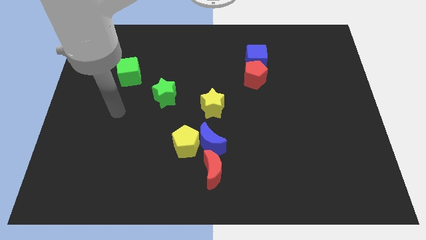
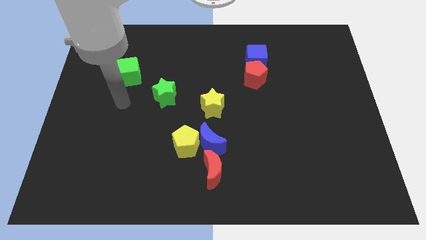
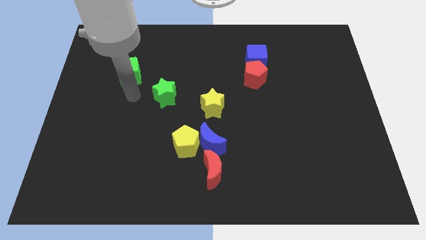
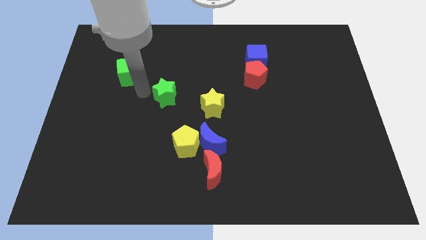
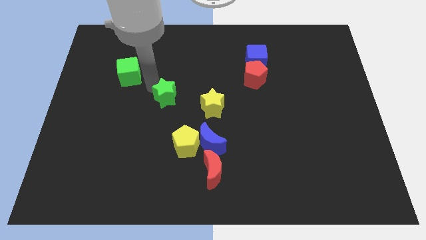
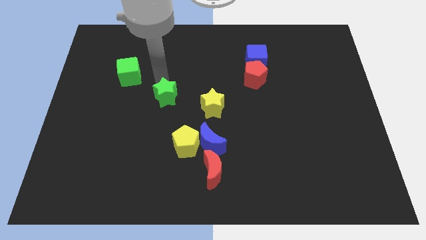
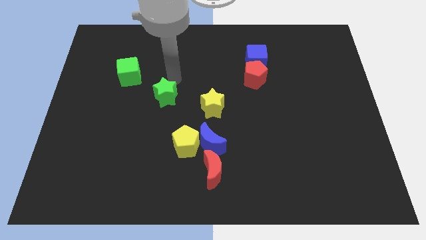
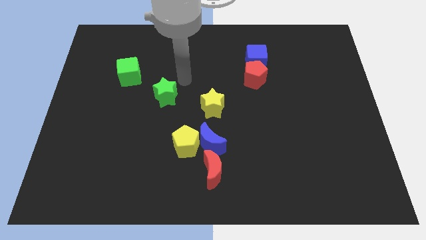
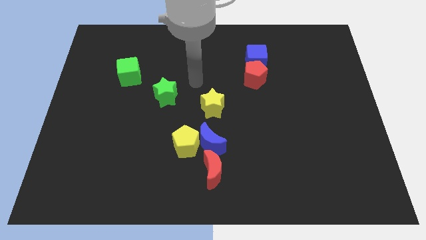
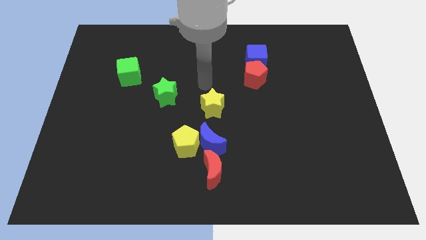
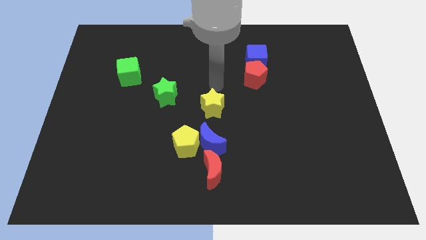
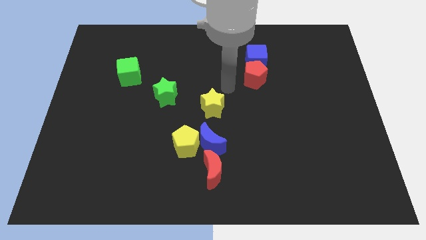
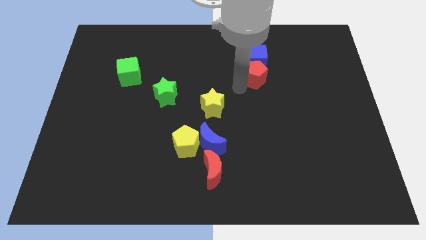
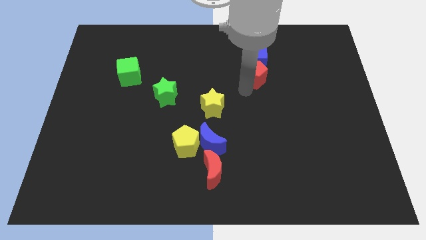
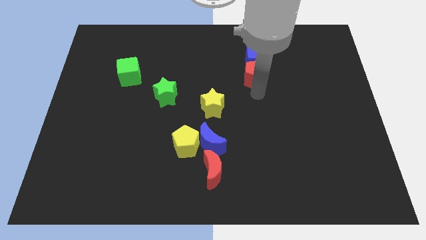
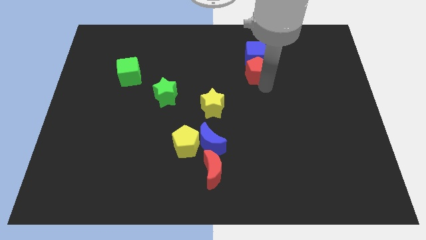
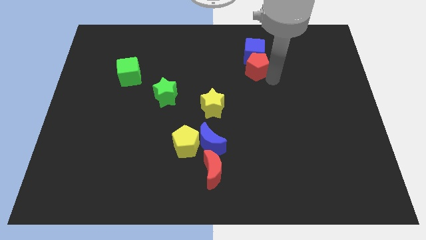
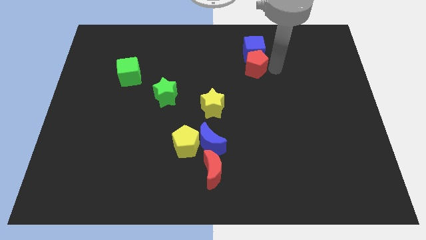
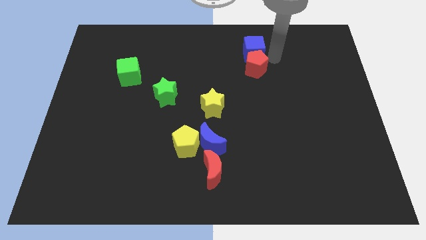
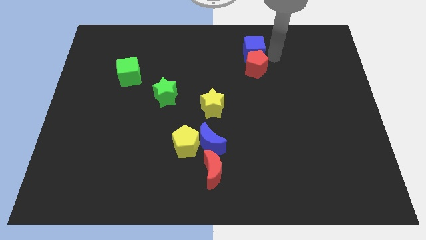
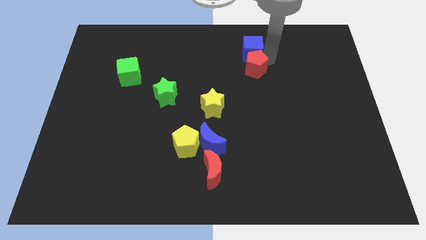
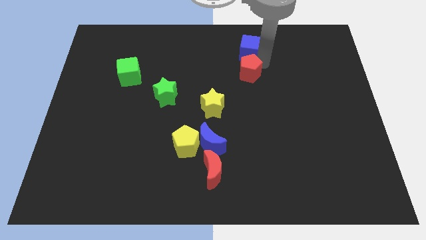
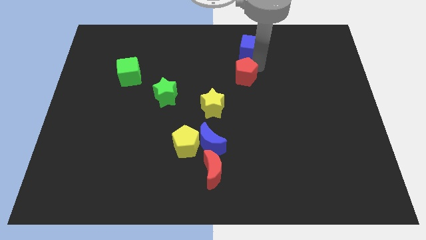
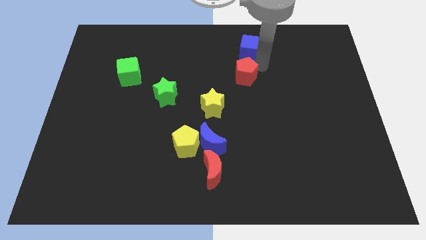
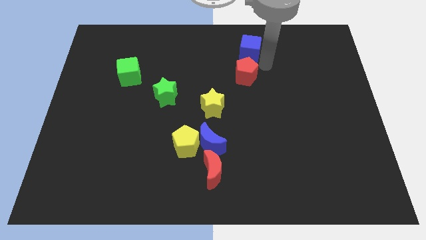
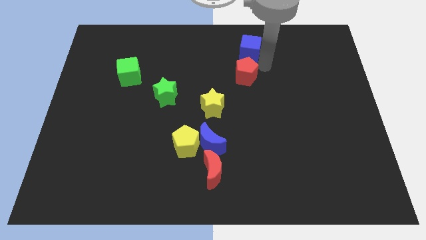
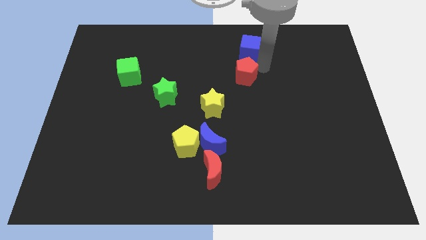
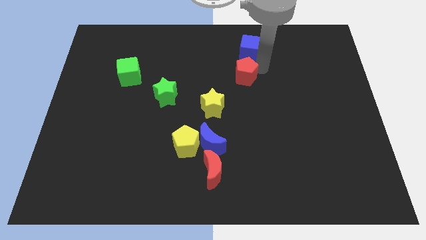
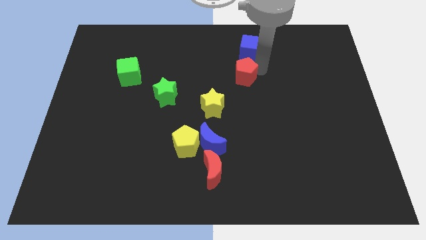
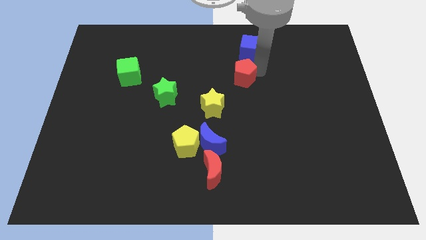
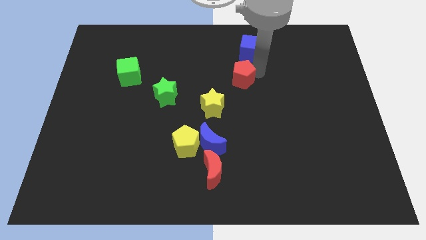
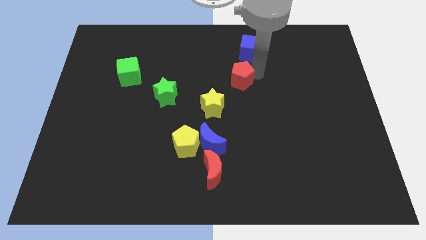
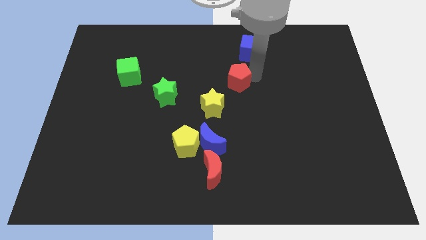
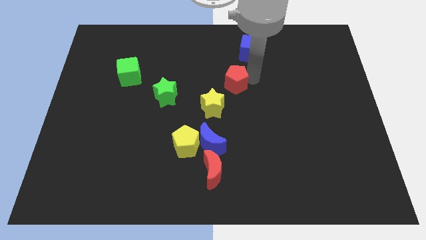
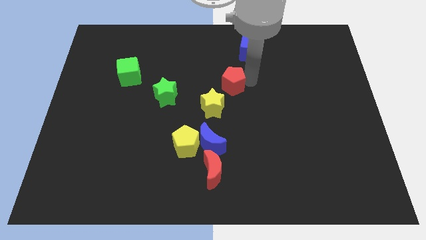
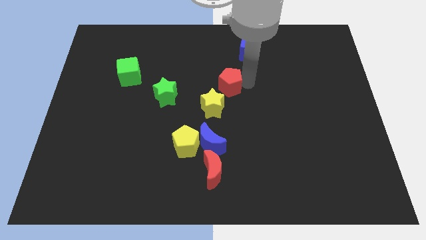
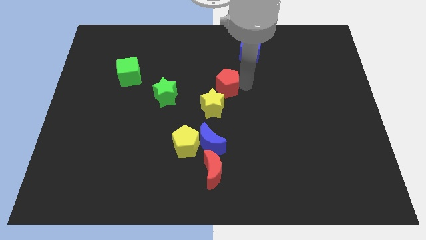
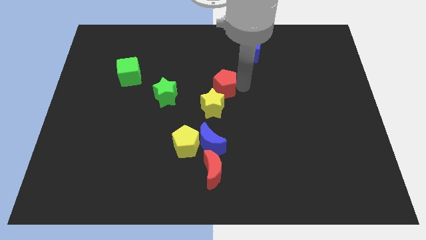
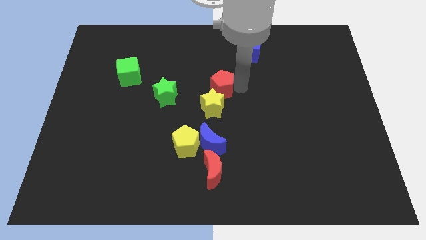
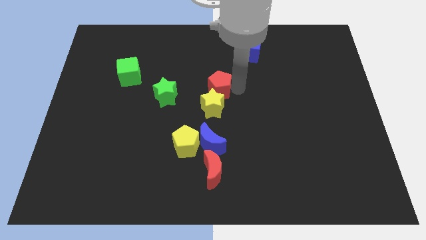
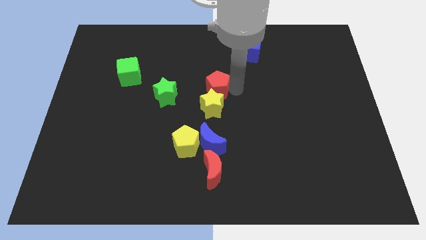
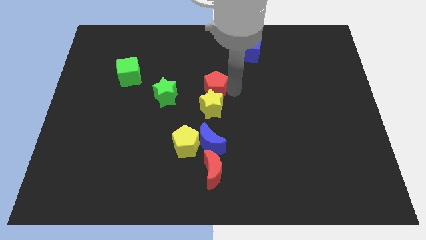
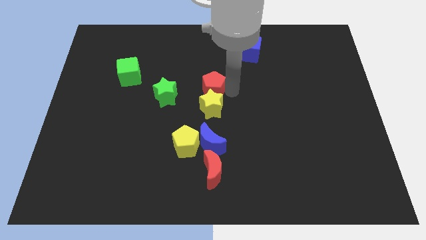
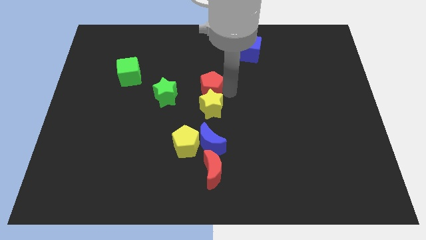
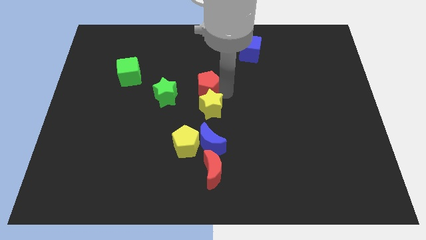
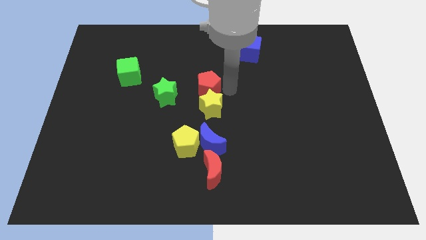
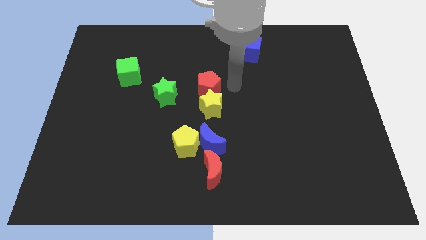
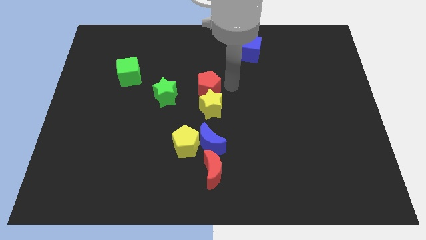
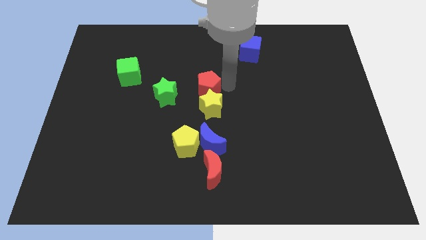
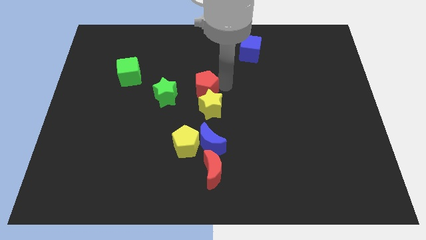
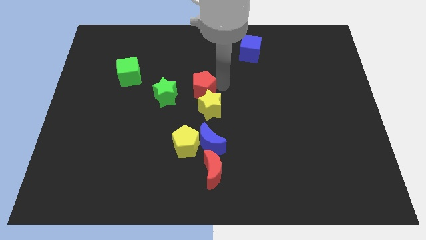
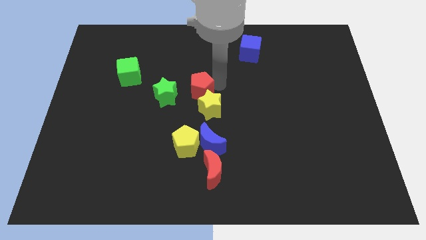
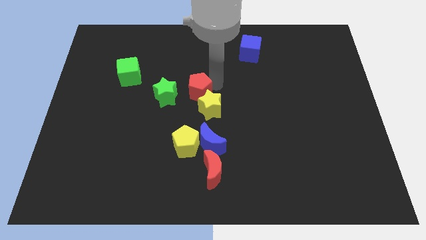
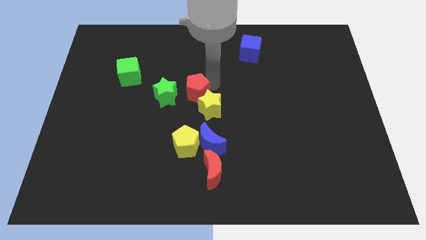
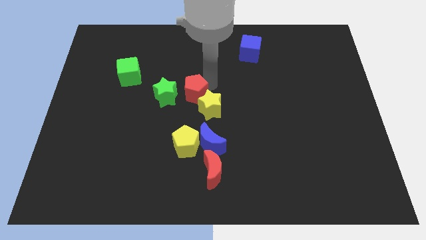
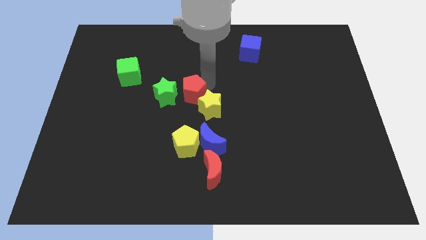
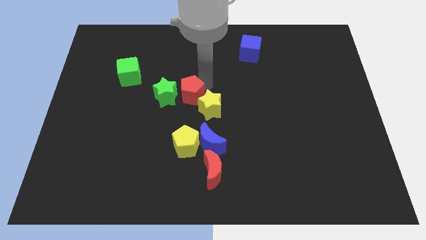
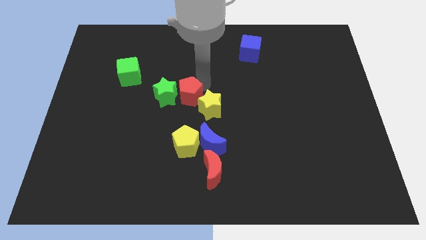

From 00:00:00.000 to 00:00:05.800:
move the red pentagon close to the green star

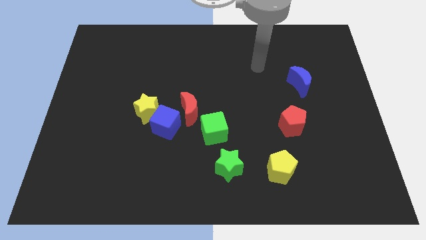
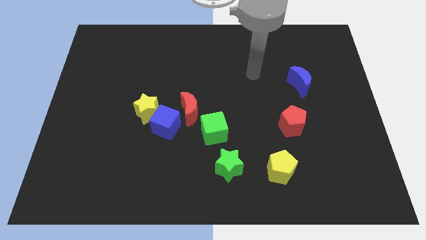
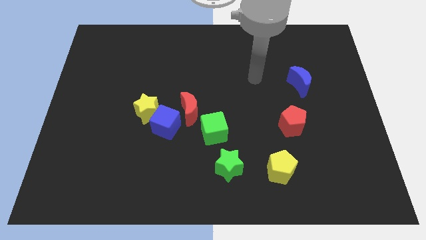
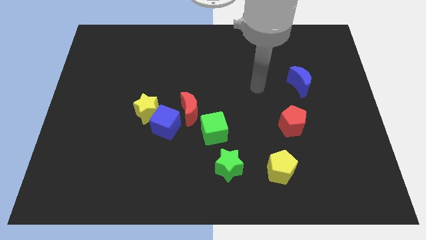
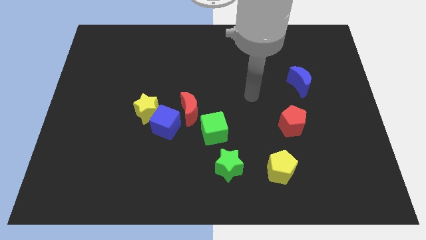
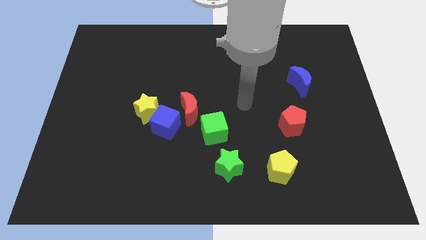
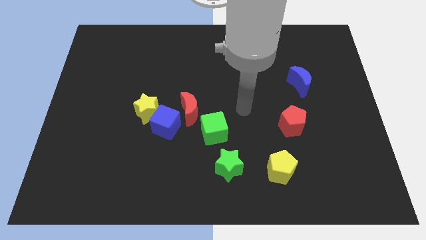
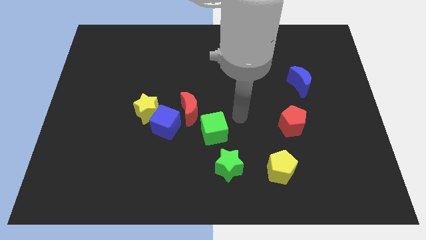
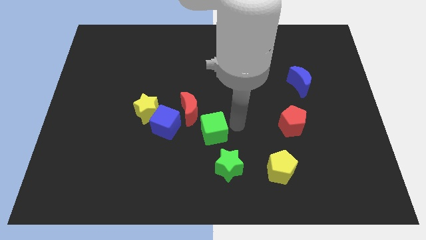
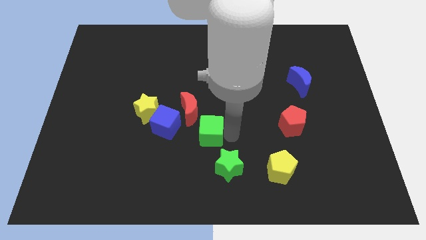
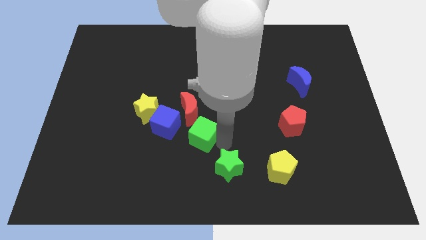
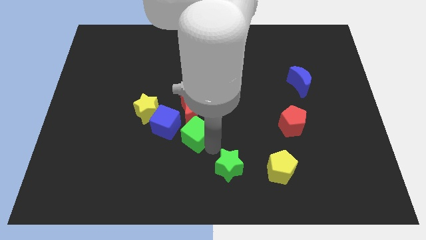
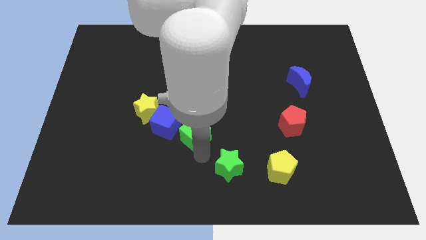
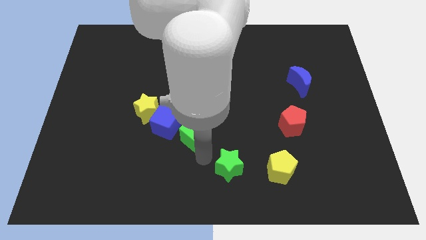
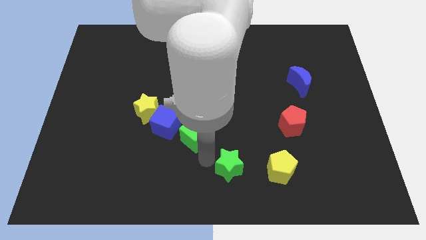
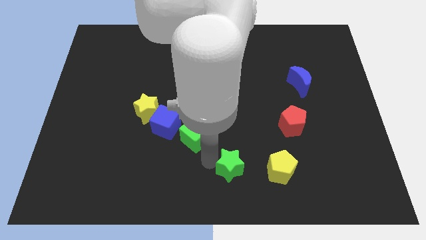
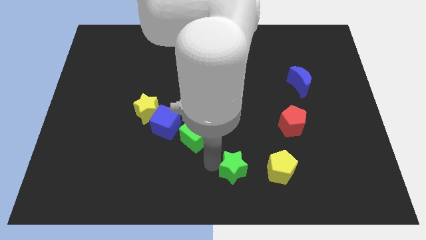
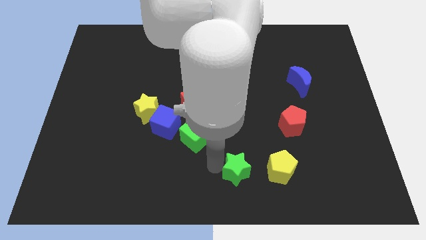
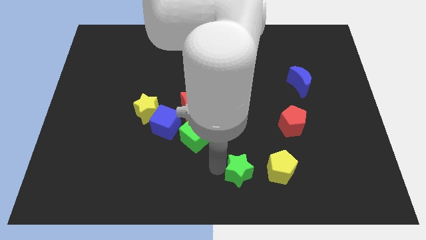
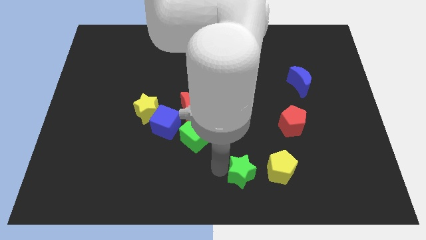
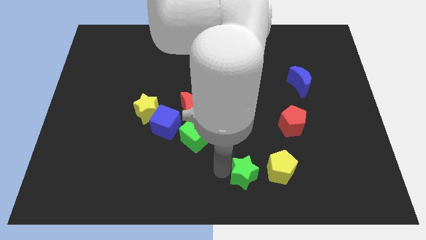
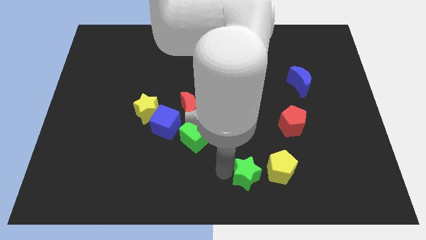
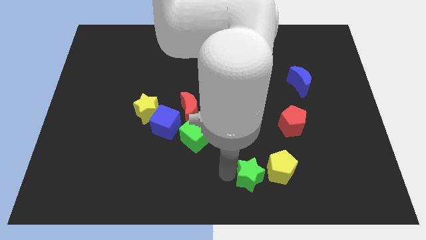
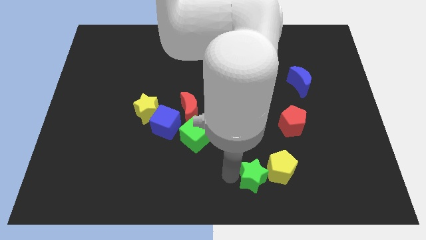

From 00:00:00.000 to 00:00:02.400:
push the green star next to the yellow pentagon
